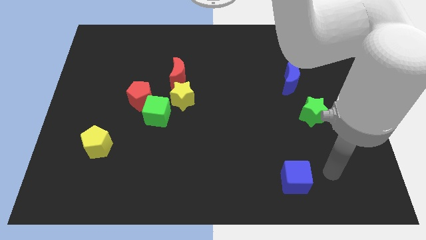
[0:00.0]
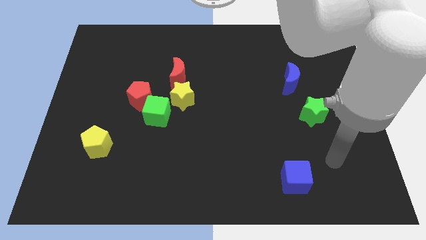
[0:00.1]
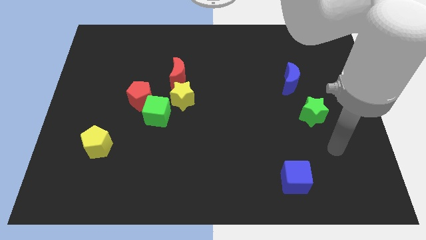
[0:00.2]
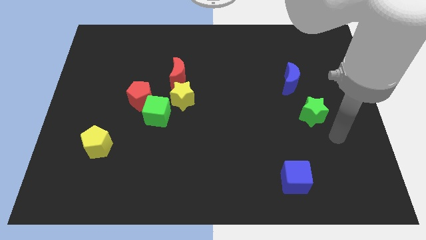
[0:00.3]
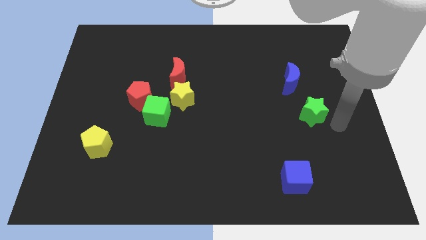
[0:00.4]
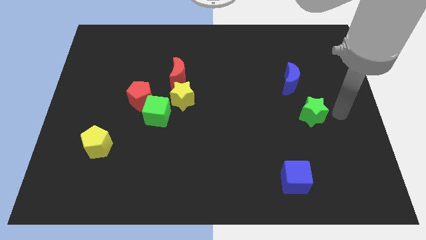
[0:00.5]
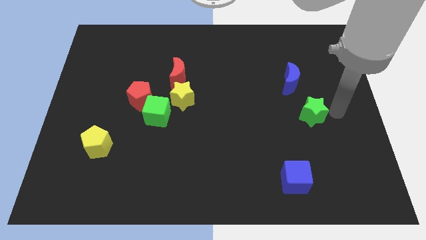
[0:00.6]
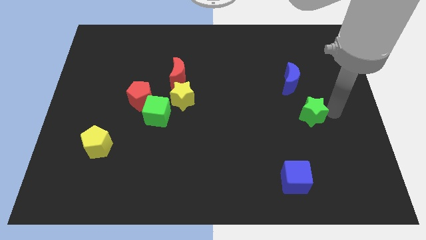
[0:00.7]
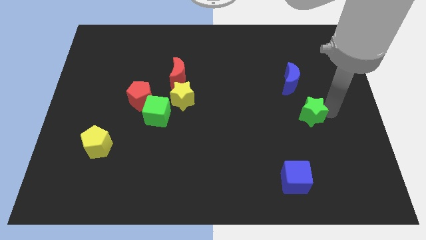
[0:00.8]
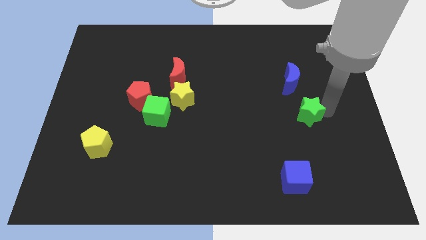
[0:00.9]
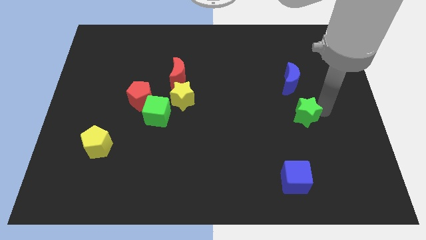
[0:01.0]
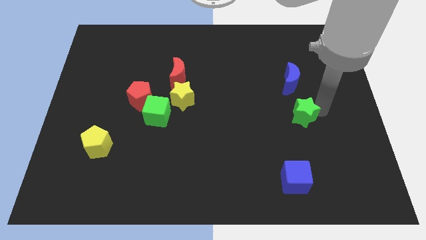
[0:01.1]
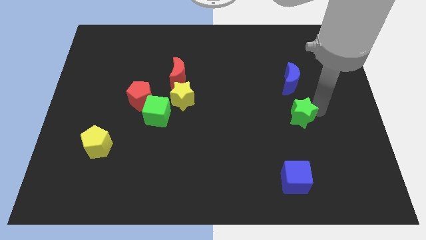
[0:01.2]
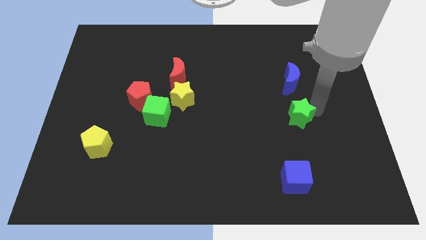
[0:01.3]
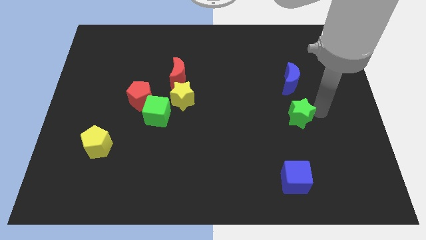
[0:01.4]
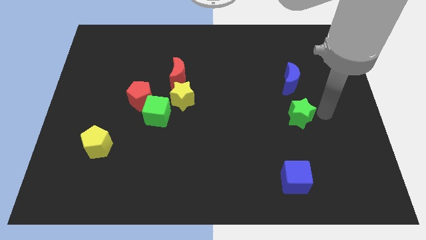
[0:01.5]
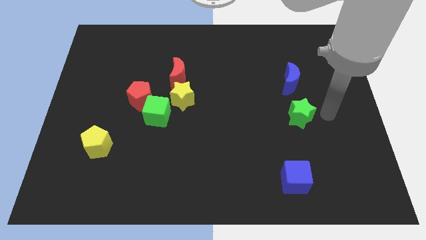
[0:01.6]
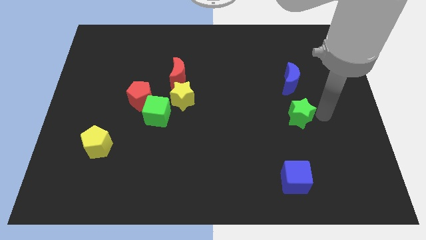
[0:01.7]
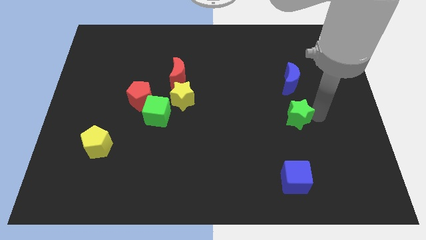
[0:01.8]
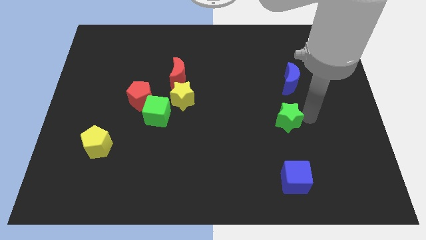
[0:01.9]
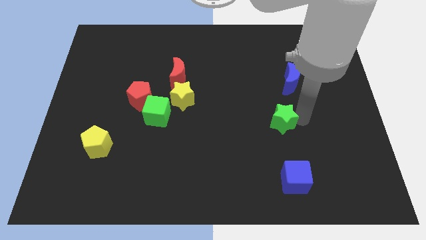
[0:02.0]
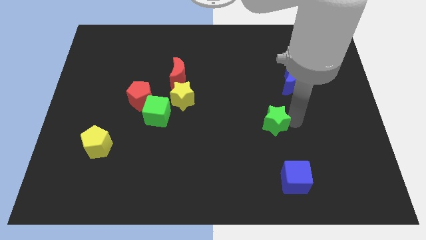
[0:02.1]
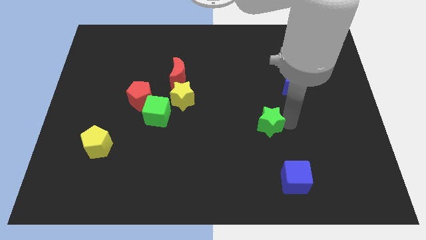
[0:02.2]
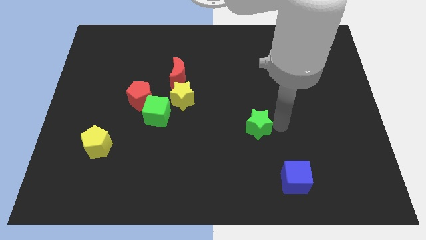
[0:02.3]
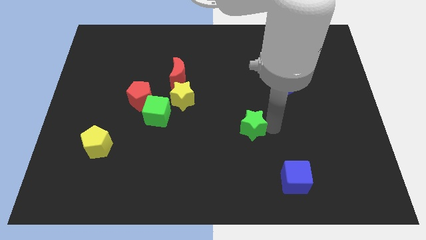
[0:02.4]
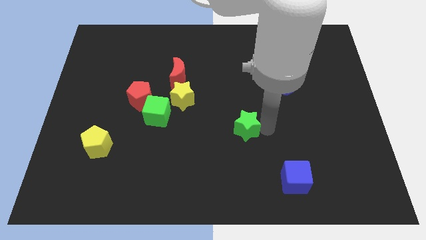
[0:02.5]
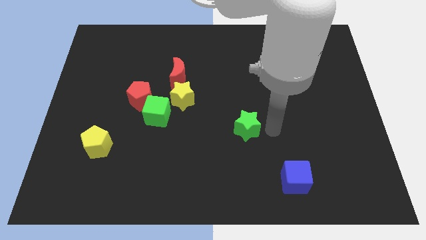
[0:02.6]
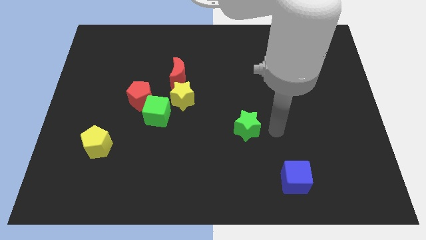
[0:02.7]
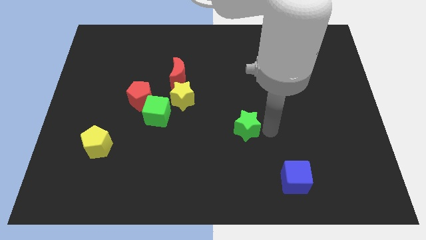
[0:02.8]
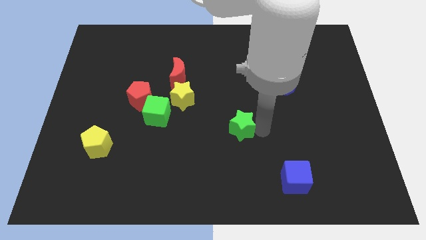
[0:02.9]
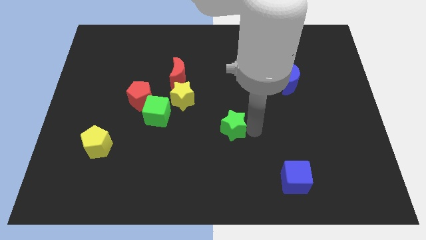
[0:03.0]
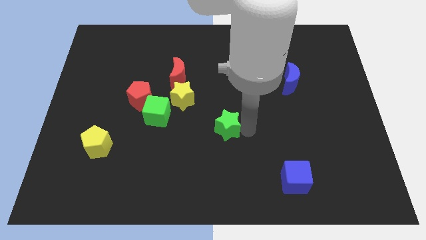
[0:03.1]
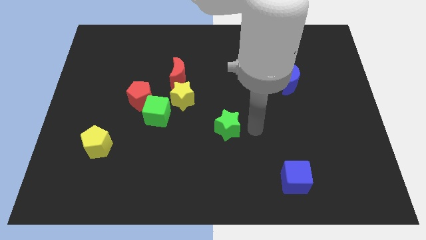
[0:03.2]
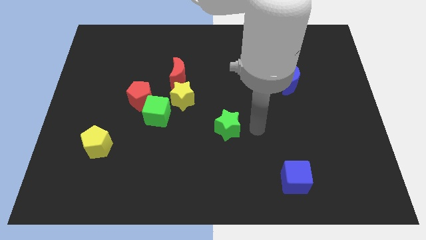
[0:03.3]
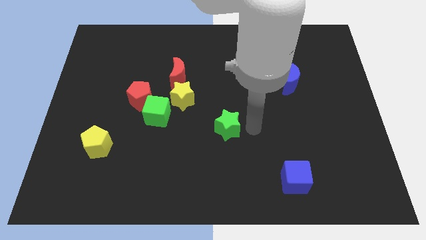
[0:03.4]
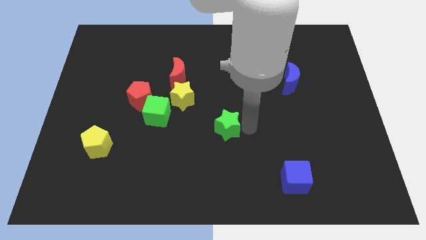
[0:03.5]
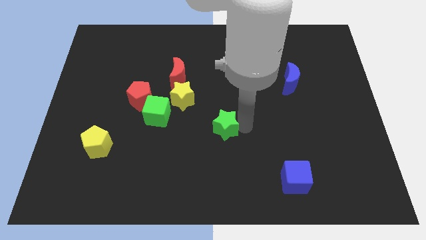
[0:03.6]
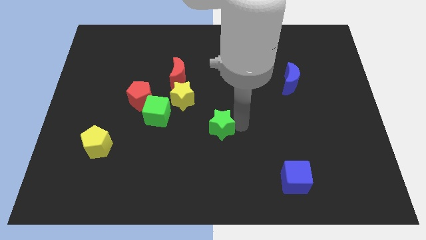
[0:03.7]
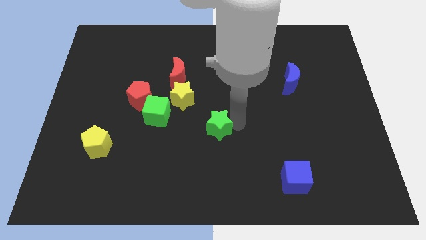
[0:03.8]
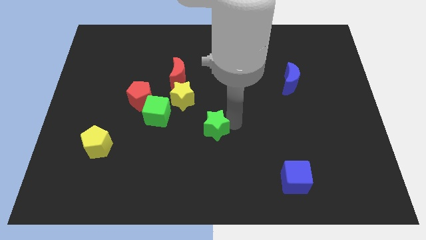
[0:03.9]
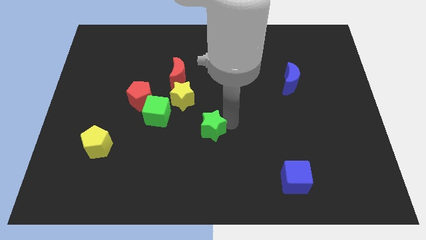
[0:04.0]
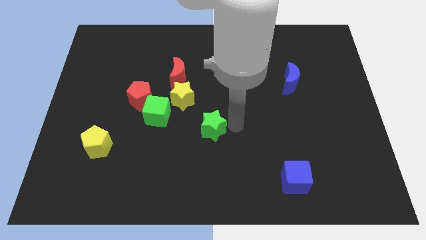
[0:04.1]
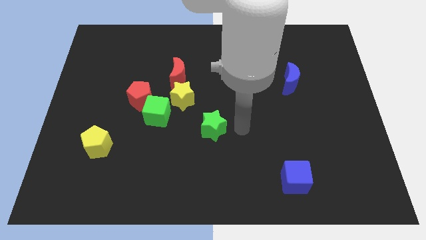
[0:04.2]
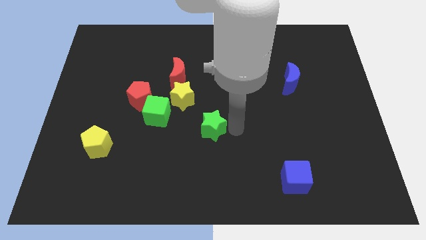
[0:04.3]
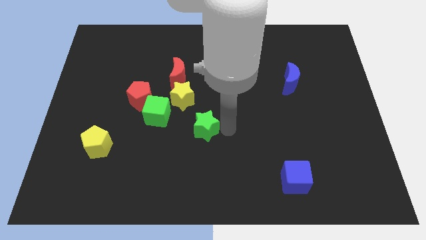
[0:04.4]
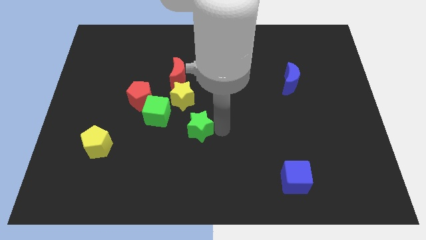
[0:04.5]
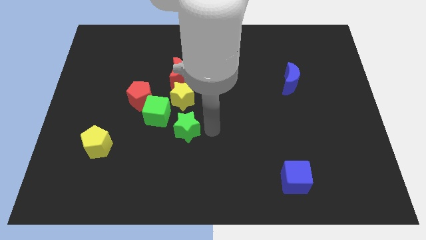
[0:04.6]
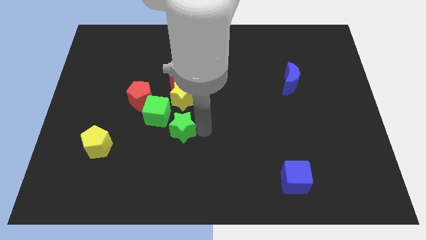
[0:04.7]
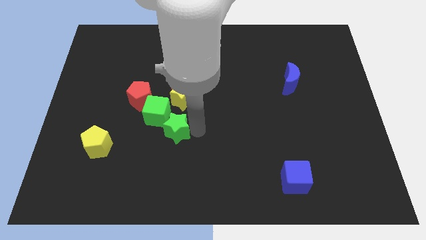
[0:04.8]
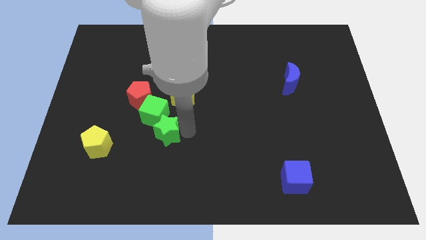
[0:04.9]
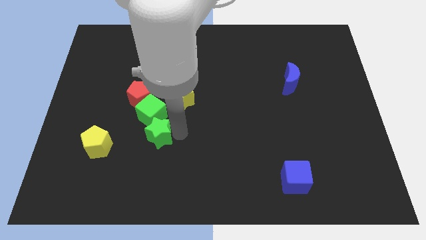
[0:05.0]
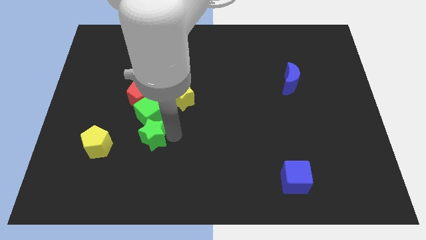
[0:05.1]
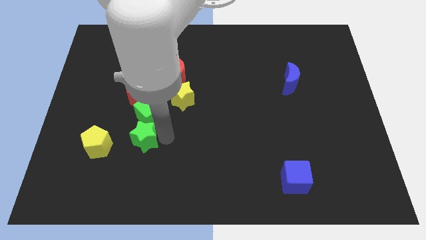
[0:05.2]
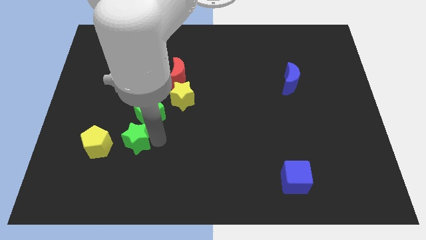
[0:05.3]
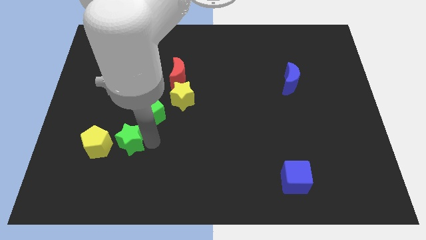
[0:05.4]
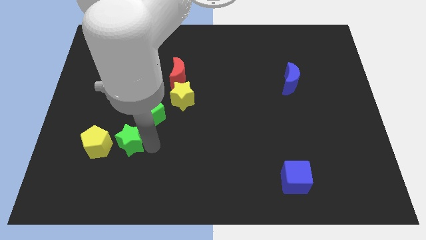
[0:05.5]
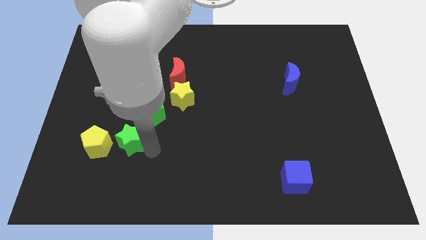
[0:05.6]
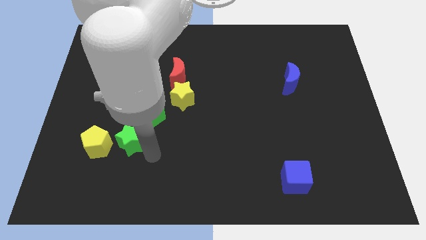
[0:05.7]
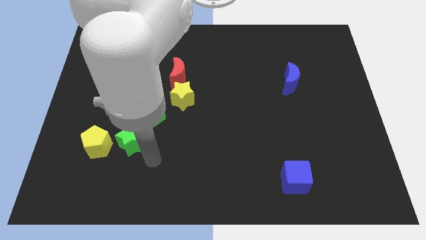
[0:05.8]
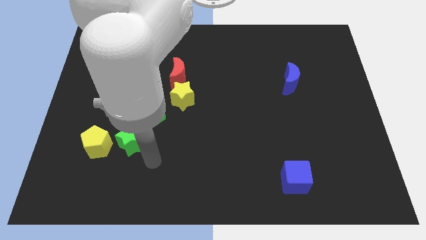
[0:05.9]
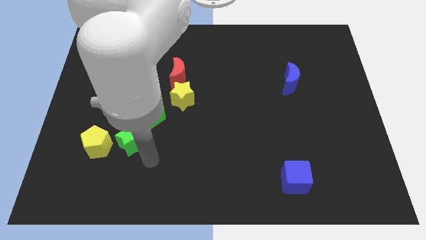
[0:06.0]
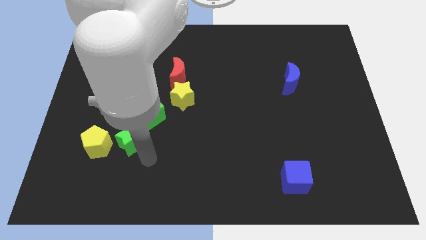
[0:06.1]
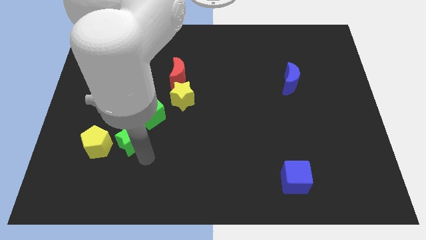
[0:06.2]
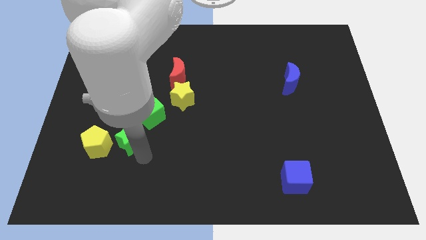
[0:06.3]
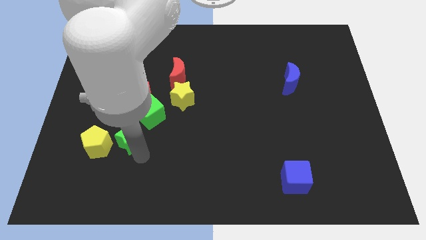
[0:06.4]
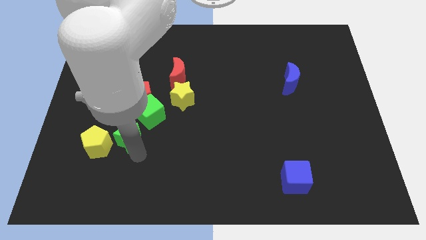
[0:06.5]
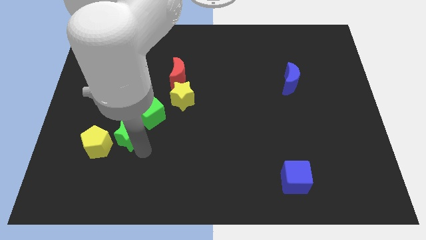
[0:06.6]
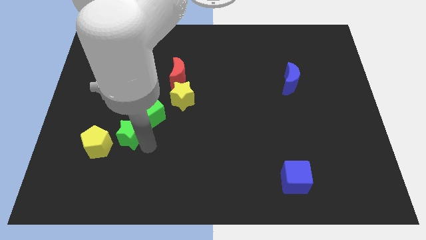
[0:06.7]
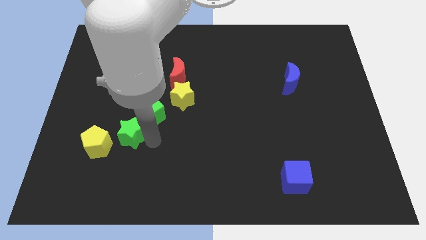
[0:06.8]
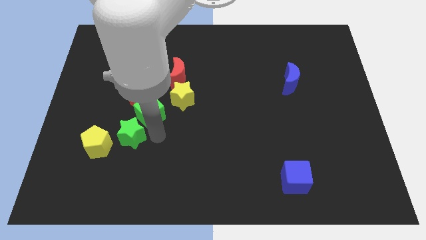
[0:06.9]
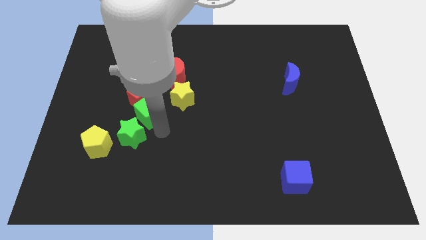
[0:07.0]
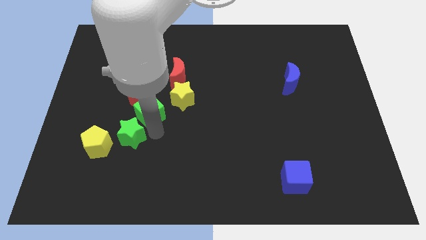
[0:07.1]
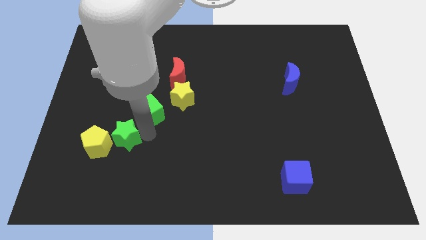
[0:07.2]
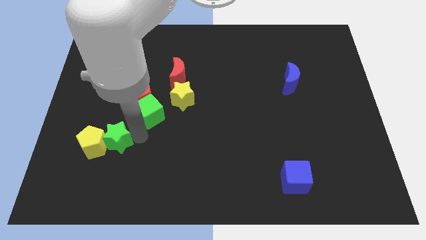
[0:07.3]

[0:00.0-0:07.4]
move the green star close to the yellow pentagon

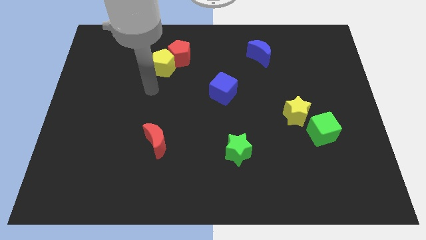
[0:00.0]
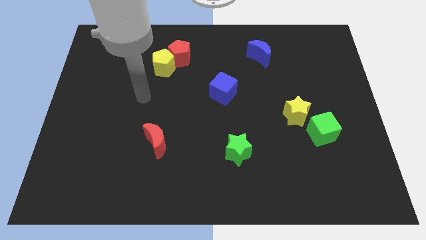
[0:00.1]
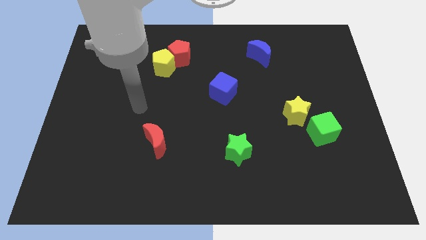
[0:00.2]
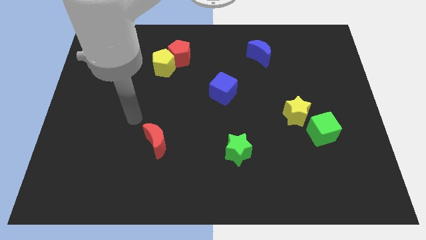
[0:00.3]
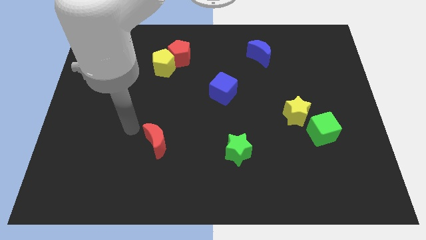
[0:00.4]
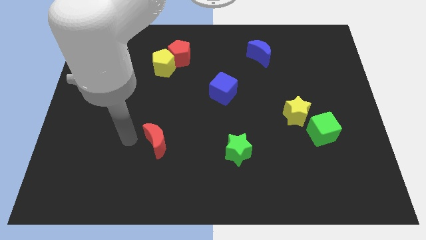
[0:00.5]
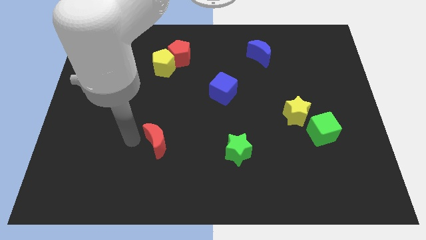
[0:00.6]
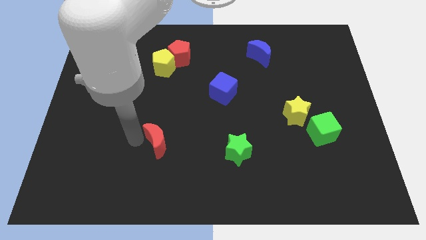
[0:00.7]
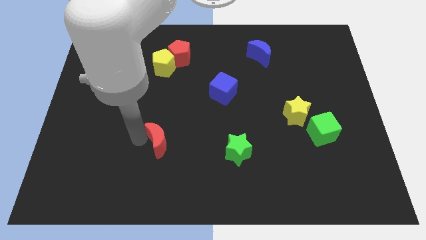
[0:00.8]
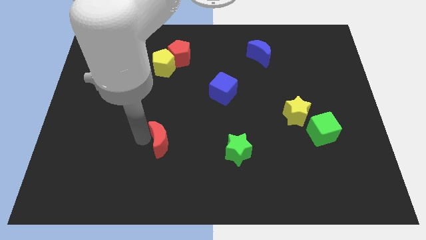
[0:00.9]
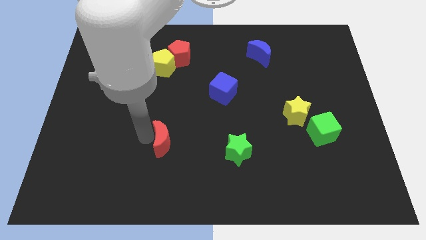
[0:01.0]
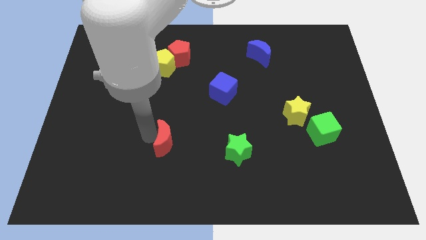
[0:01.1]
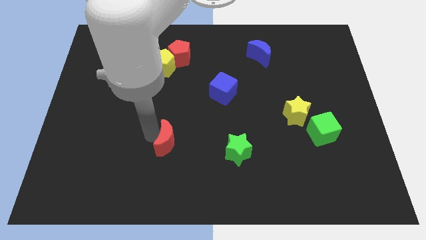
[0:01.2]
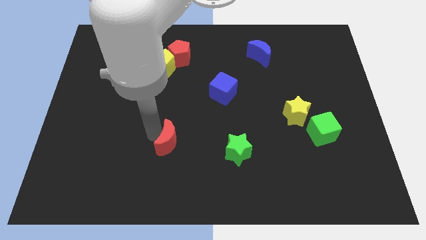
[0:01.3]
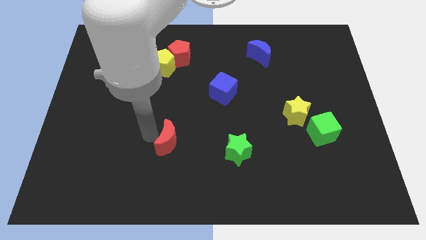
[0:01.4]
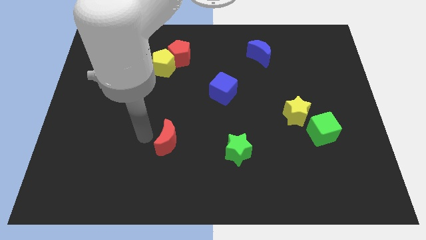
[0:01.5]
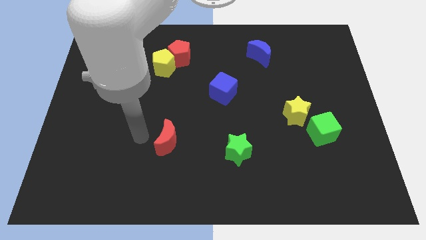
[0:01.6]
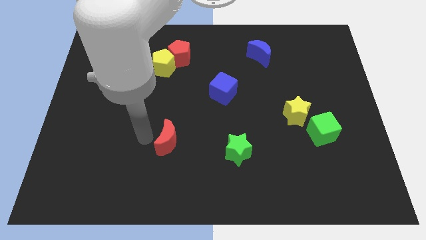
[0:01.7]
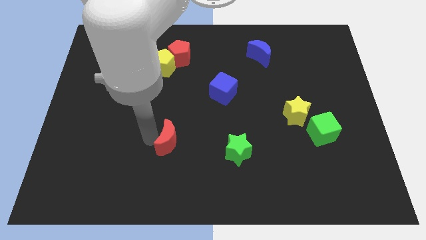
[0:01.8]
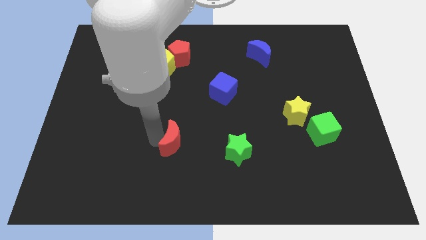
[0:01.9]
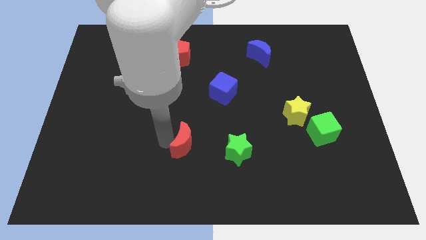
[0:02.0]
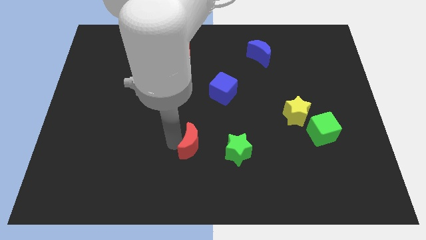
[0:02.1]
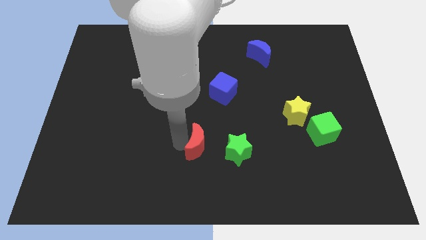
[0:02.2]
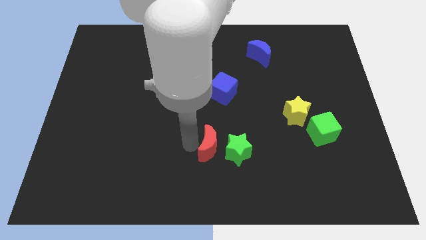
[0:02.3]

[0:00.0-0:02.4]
push the red moon next to the green star
